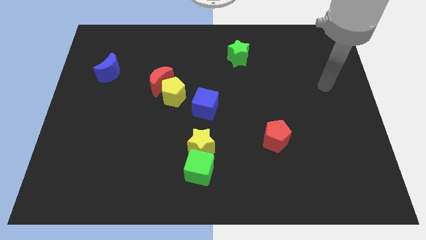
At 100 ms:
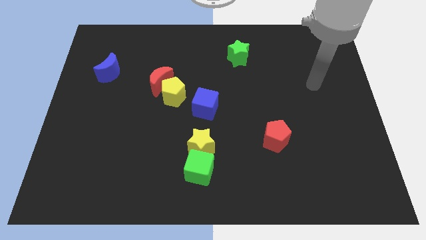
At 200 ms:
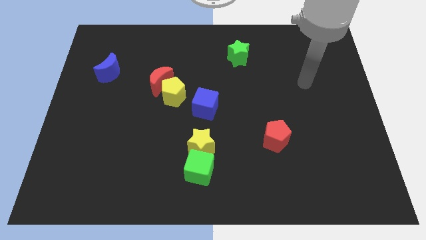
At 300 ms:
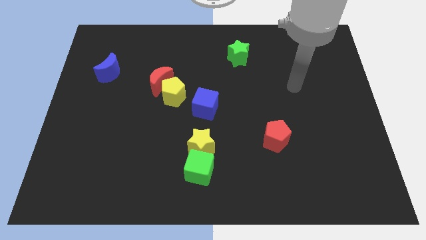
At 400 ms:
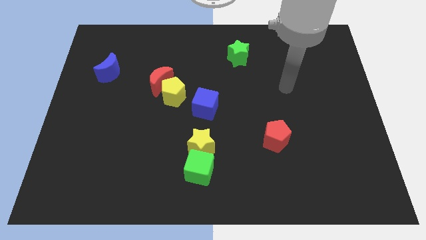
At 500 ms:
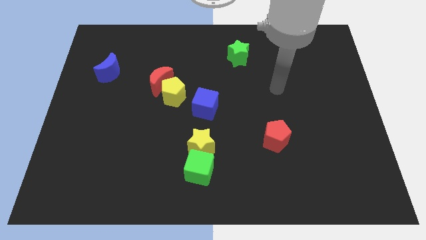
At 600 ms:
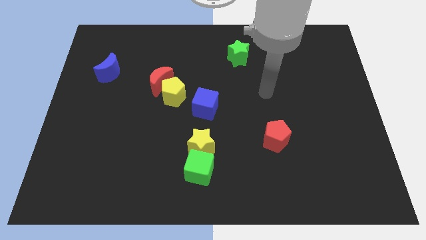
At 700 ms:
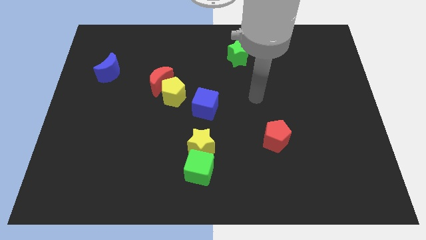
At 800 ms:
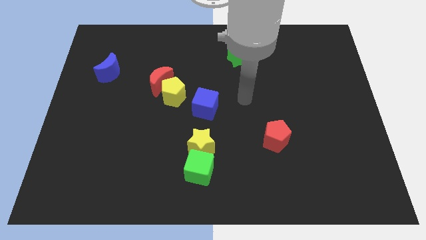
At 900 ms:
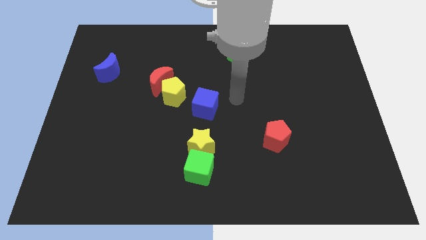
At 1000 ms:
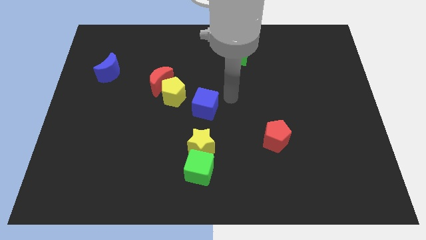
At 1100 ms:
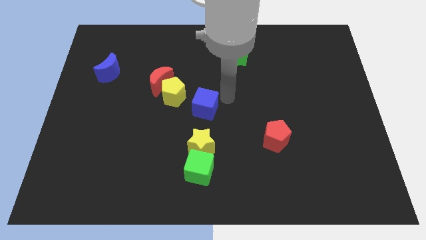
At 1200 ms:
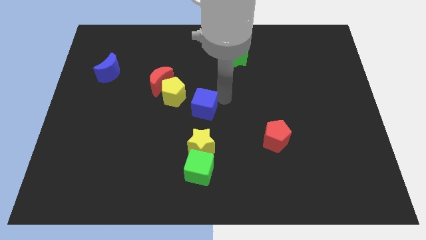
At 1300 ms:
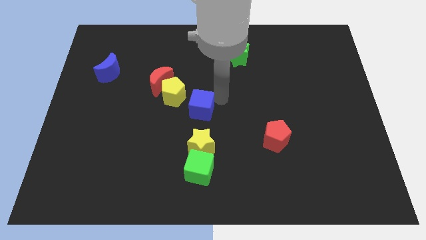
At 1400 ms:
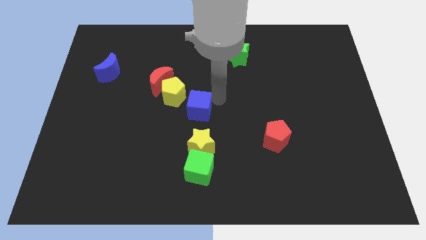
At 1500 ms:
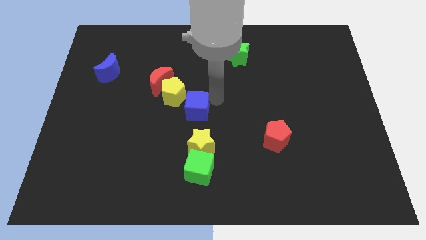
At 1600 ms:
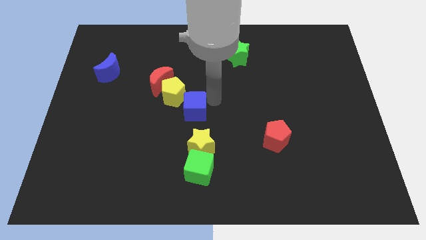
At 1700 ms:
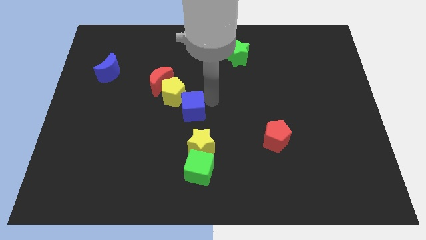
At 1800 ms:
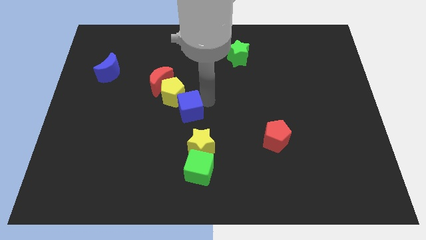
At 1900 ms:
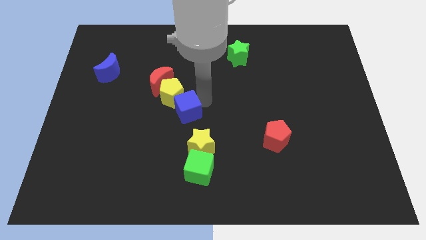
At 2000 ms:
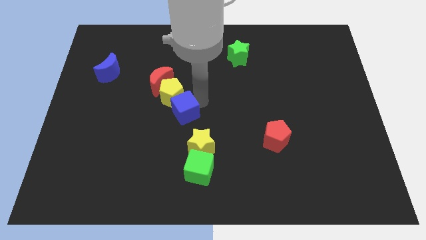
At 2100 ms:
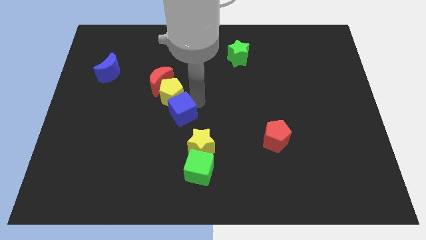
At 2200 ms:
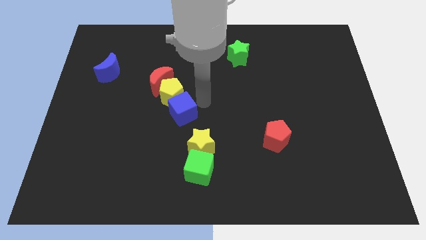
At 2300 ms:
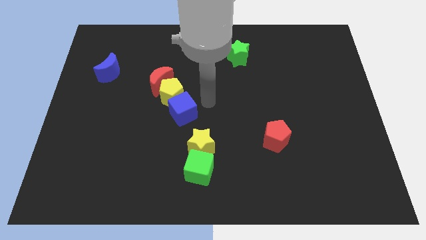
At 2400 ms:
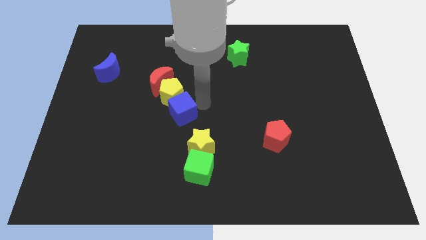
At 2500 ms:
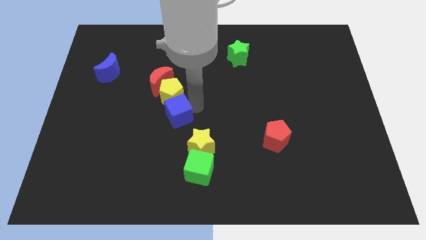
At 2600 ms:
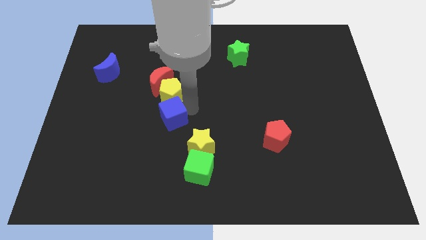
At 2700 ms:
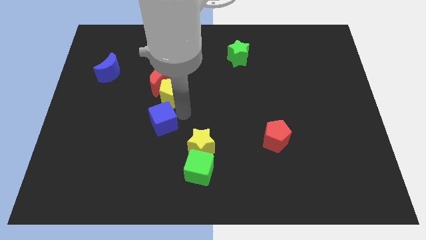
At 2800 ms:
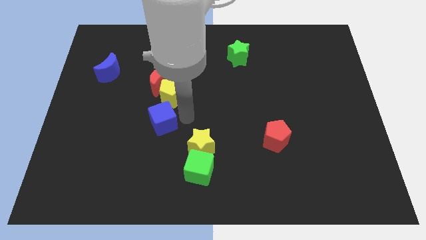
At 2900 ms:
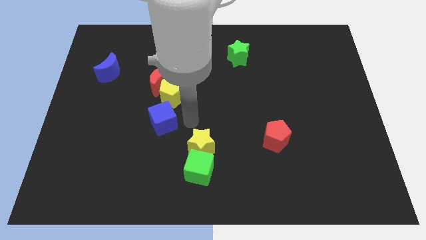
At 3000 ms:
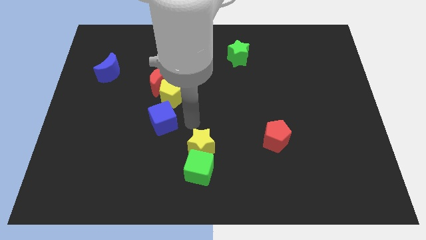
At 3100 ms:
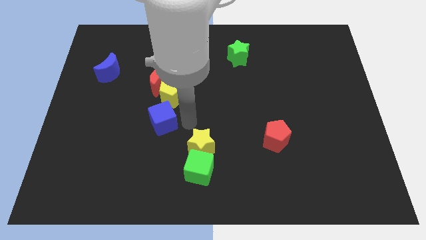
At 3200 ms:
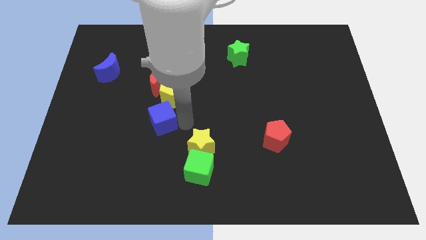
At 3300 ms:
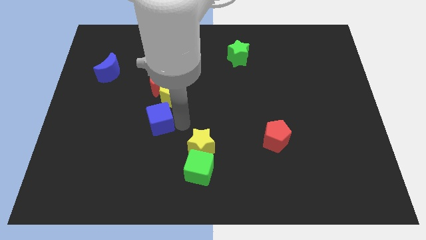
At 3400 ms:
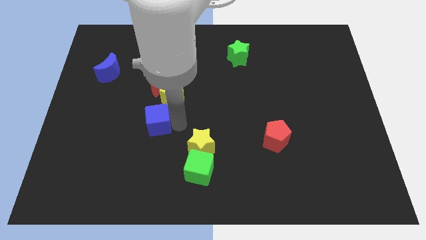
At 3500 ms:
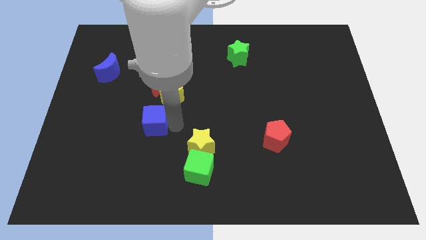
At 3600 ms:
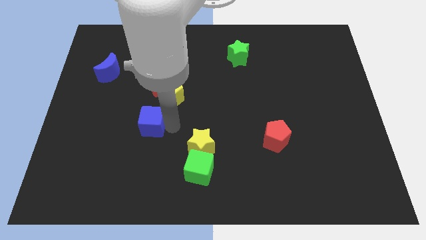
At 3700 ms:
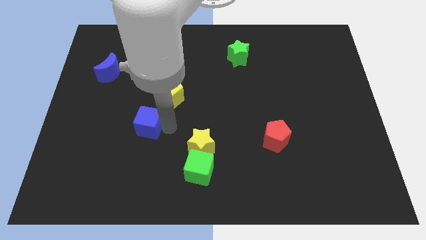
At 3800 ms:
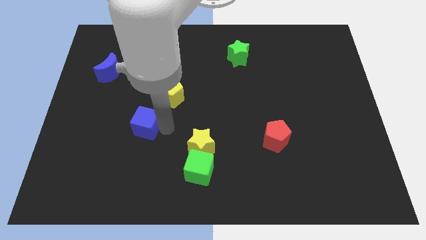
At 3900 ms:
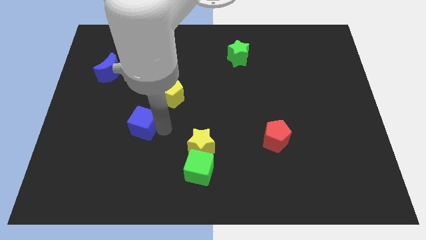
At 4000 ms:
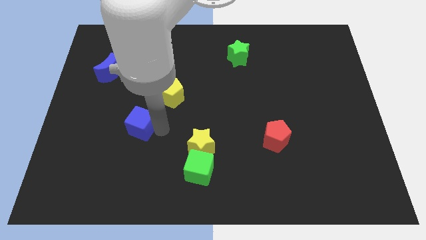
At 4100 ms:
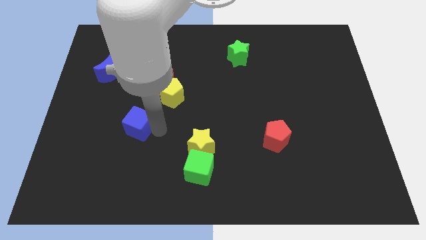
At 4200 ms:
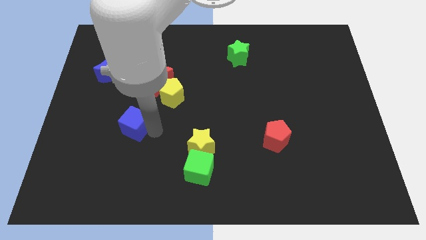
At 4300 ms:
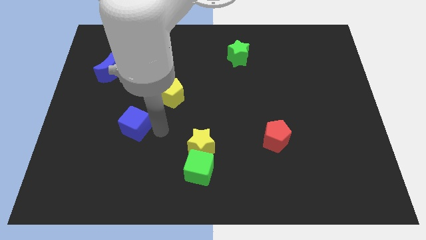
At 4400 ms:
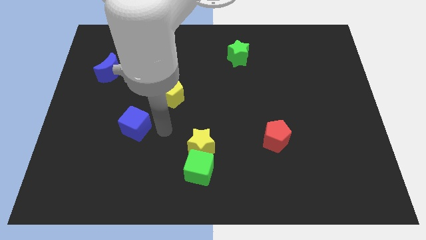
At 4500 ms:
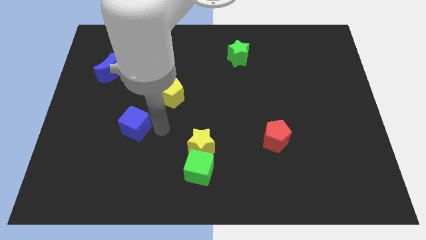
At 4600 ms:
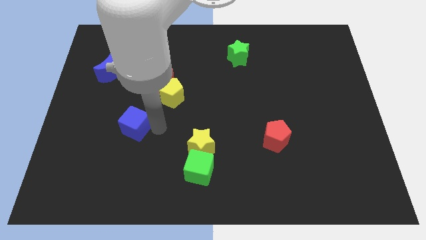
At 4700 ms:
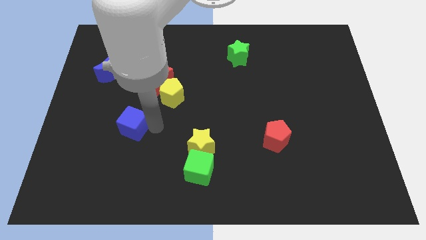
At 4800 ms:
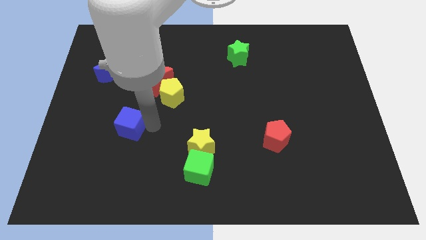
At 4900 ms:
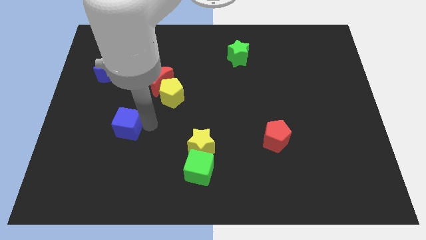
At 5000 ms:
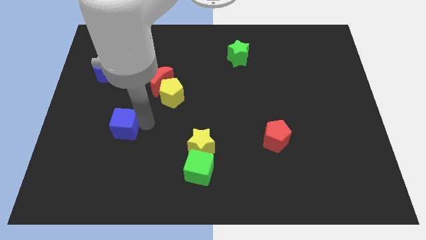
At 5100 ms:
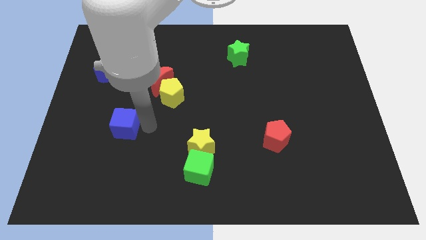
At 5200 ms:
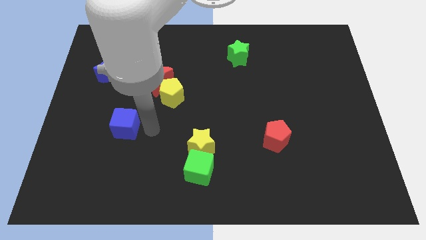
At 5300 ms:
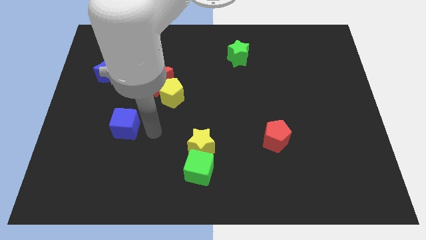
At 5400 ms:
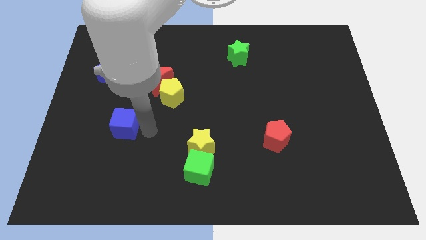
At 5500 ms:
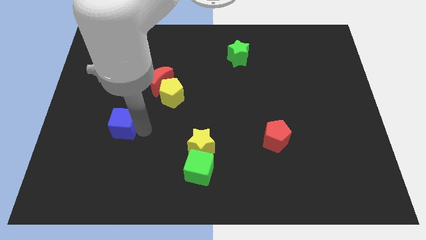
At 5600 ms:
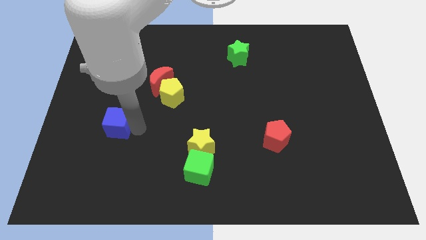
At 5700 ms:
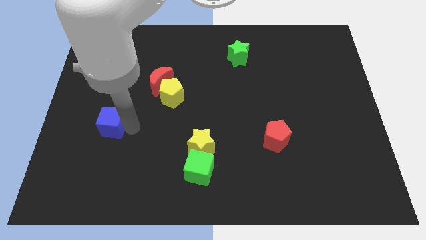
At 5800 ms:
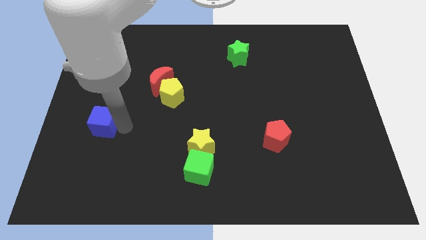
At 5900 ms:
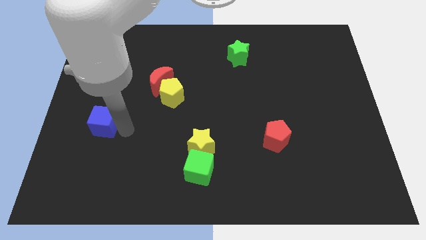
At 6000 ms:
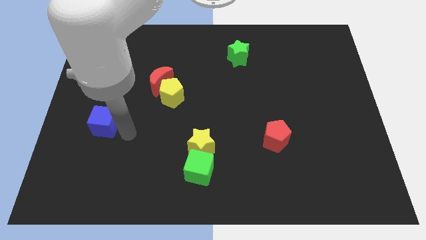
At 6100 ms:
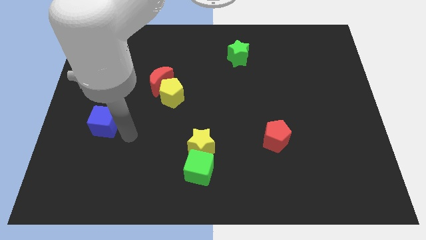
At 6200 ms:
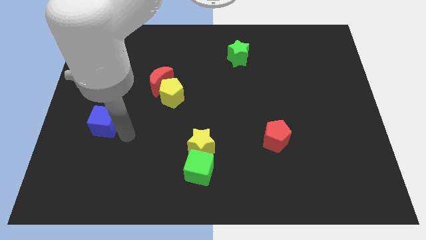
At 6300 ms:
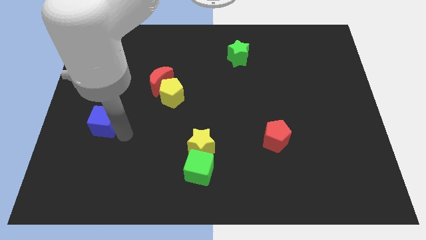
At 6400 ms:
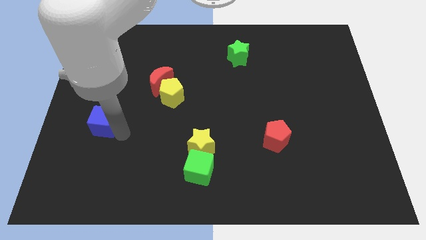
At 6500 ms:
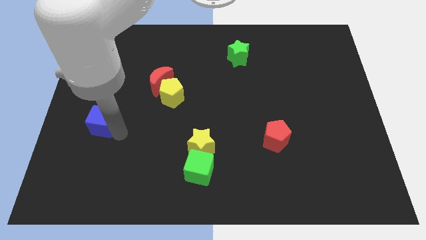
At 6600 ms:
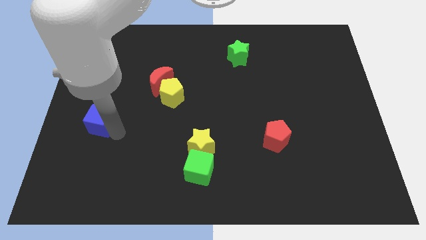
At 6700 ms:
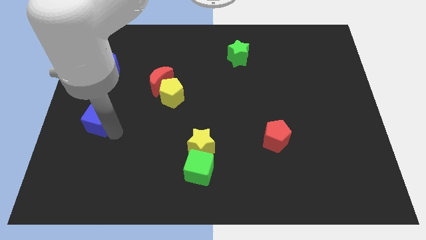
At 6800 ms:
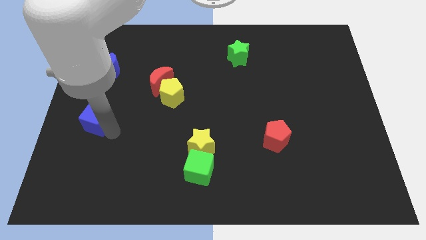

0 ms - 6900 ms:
put the blue cube to the left side
